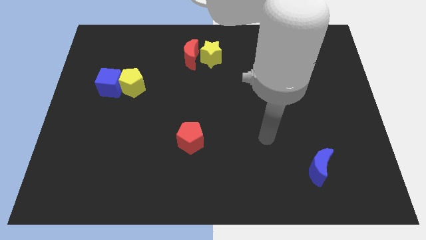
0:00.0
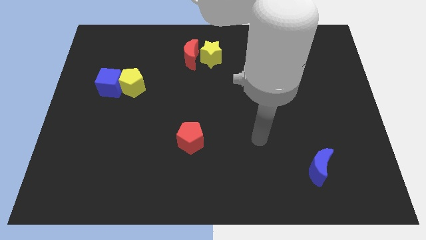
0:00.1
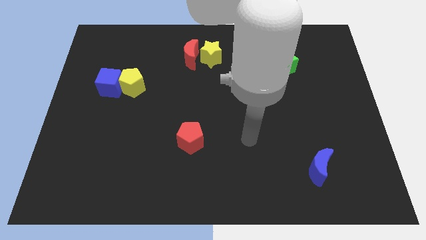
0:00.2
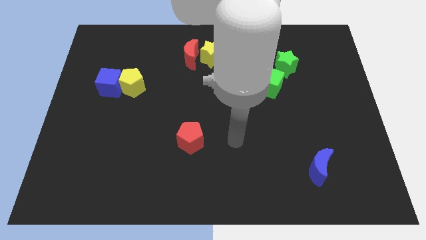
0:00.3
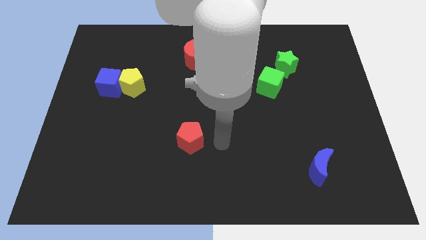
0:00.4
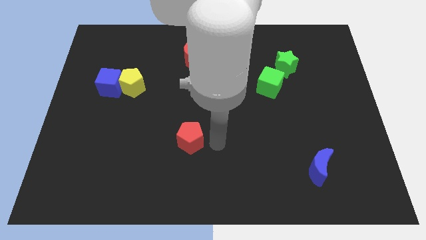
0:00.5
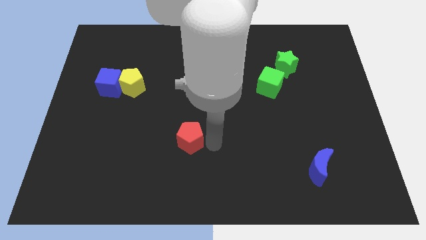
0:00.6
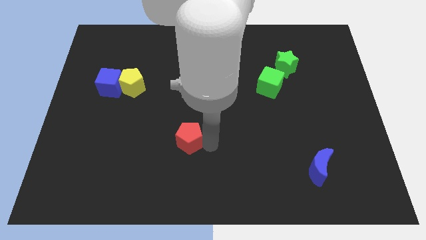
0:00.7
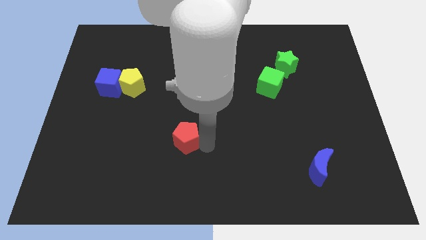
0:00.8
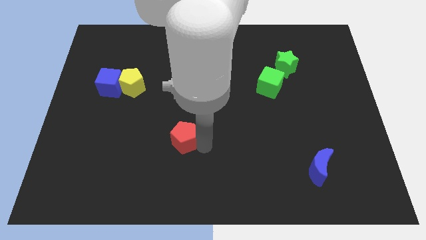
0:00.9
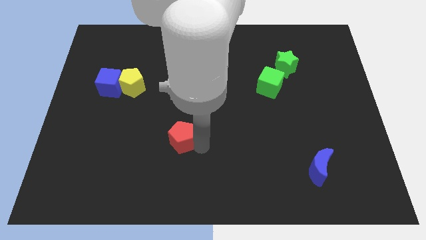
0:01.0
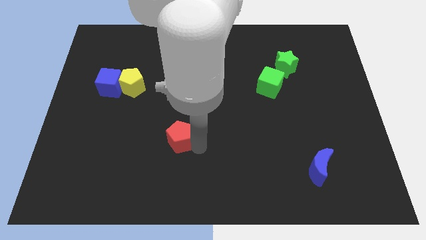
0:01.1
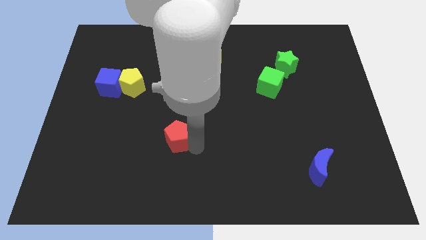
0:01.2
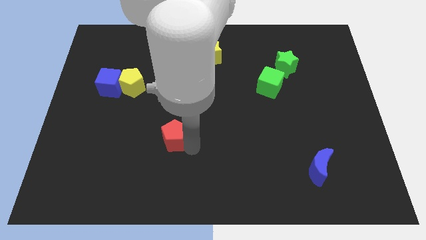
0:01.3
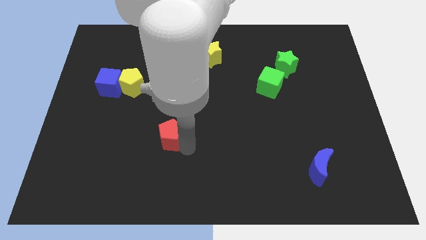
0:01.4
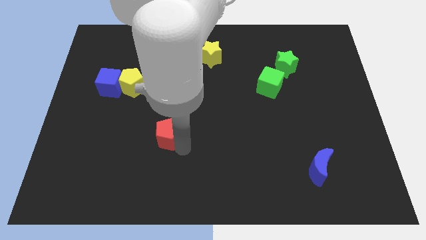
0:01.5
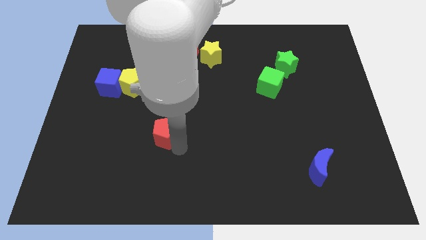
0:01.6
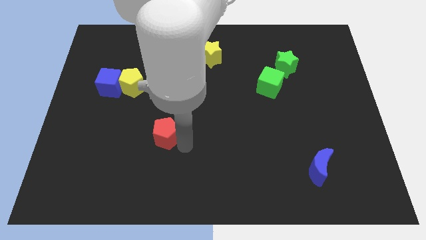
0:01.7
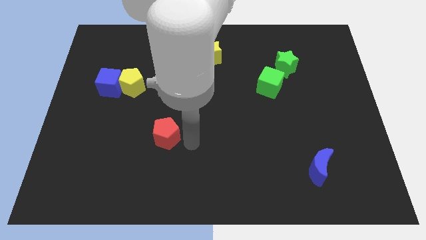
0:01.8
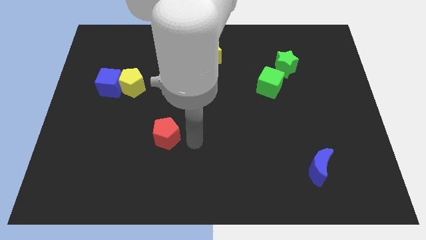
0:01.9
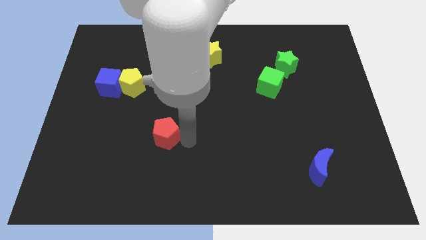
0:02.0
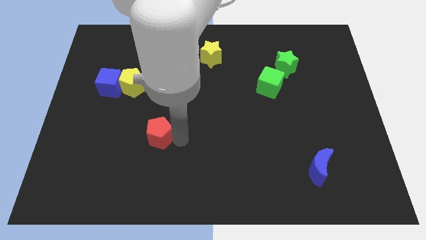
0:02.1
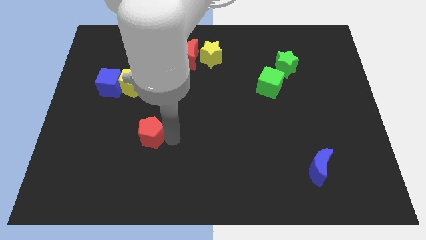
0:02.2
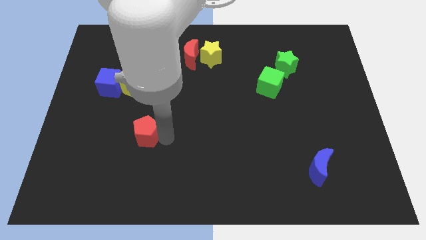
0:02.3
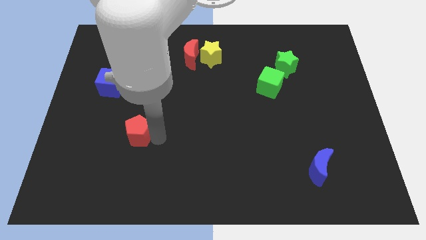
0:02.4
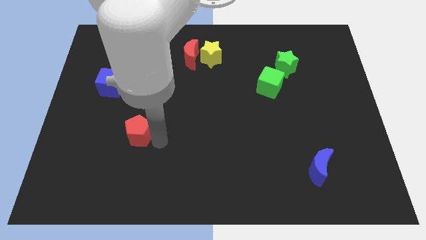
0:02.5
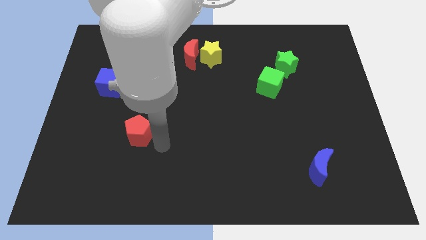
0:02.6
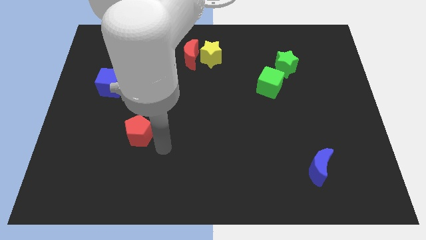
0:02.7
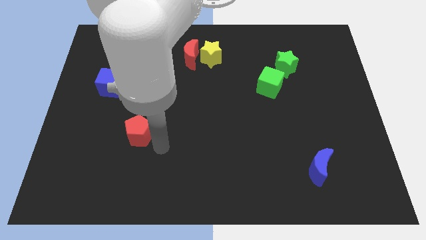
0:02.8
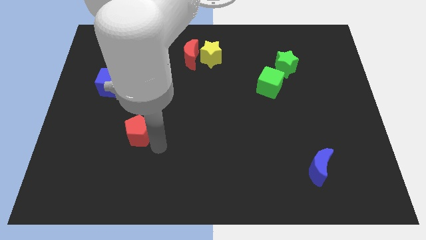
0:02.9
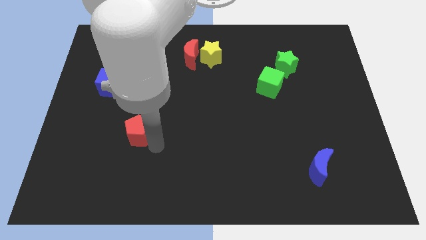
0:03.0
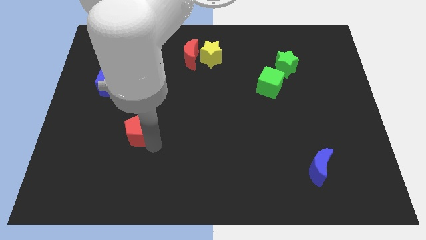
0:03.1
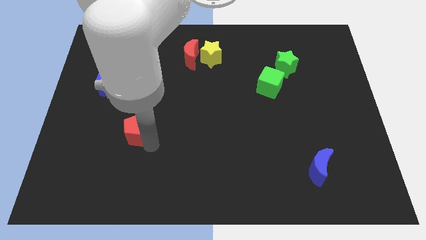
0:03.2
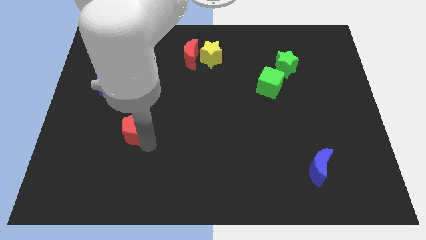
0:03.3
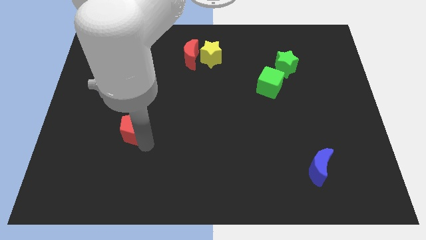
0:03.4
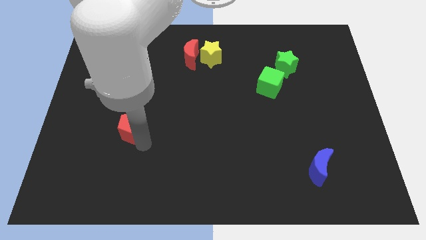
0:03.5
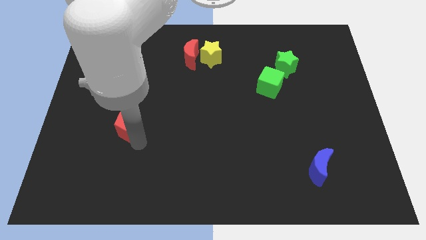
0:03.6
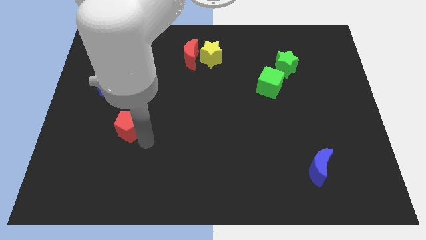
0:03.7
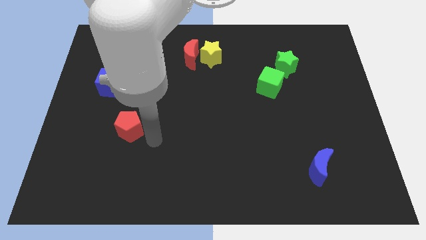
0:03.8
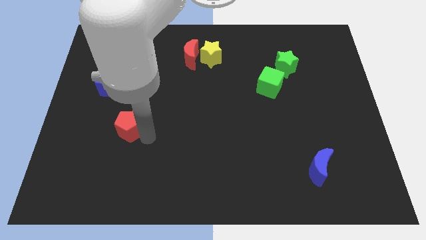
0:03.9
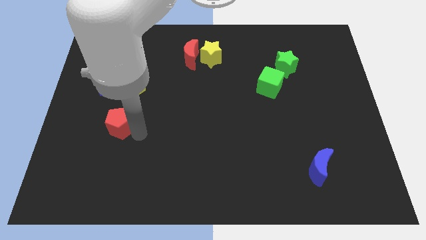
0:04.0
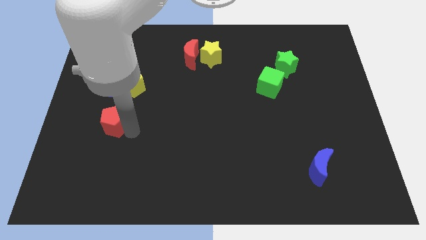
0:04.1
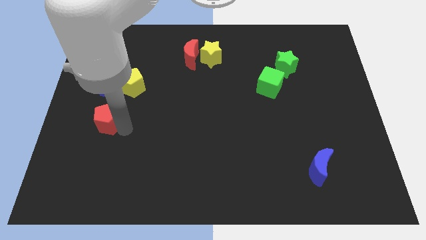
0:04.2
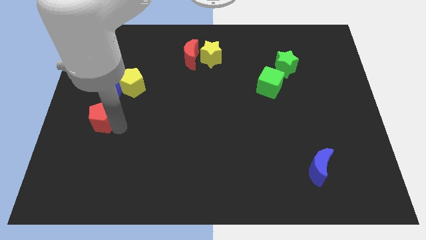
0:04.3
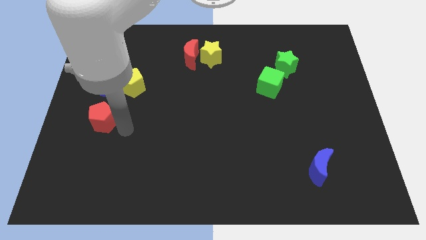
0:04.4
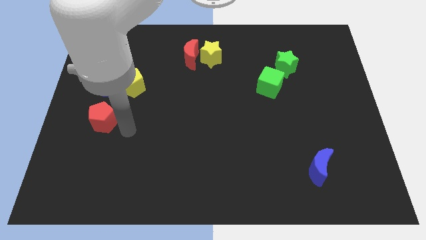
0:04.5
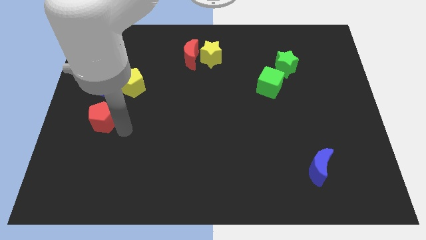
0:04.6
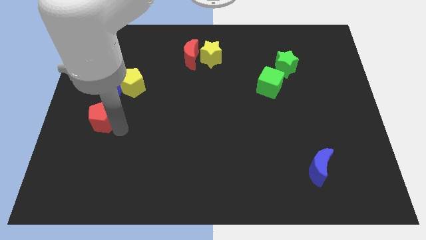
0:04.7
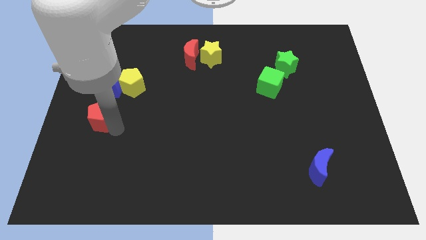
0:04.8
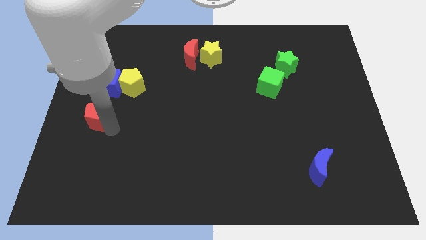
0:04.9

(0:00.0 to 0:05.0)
push the red pentagon to the center left

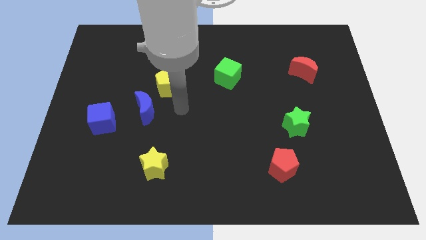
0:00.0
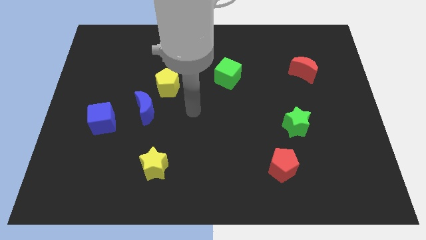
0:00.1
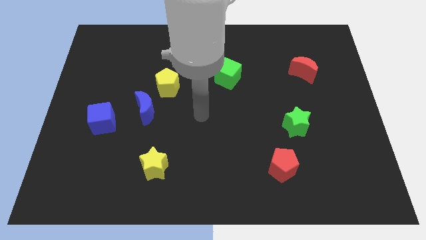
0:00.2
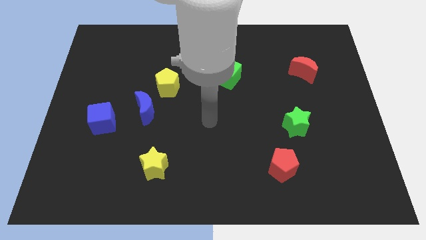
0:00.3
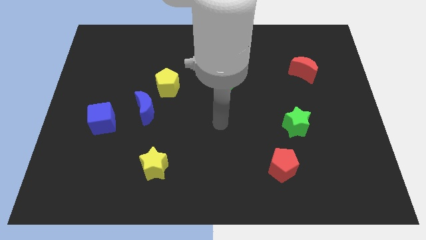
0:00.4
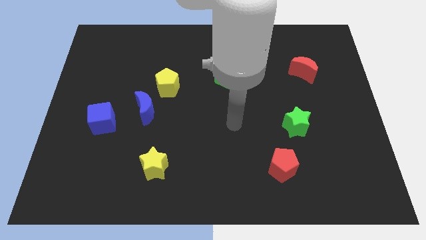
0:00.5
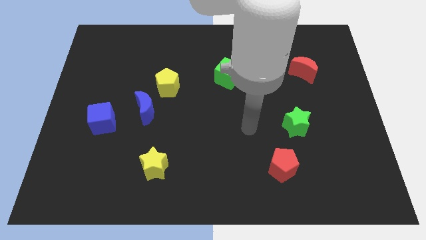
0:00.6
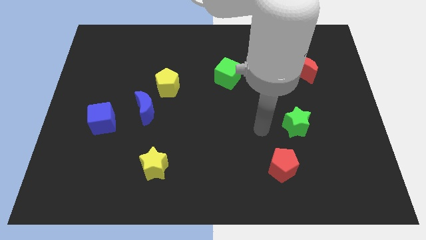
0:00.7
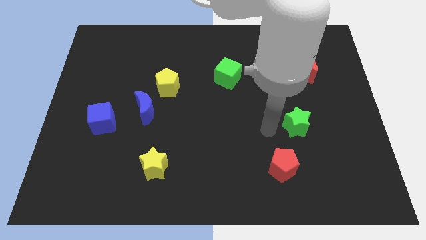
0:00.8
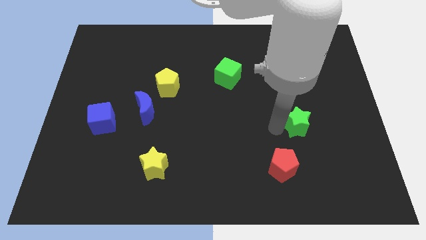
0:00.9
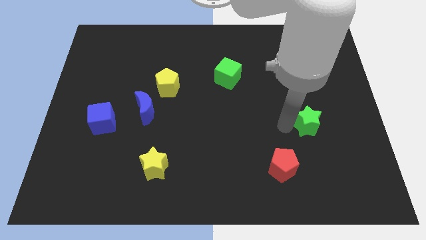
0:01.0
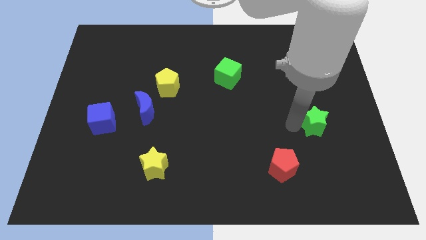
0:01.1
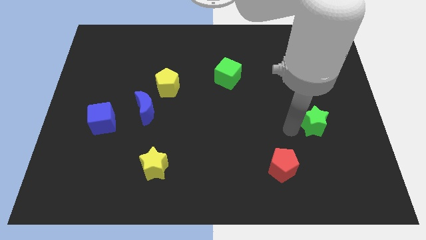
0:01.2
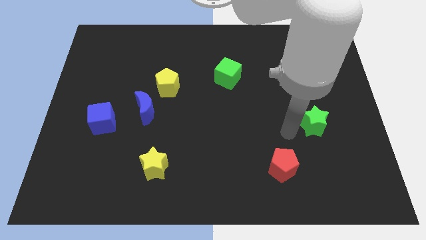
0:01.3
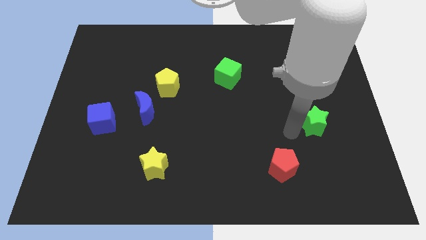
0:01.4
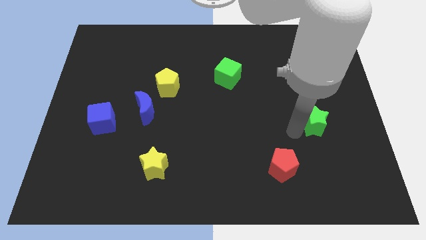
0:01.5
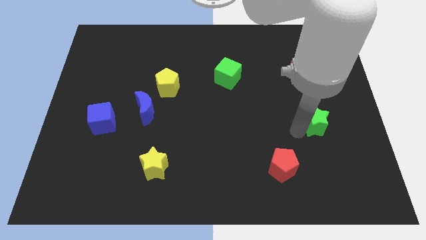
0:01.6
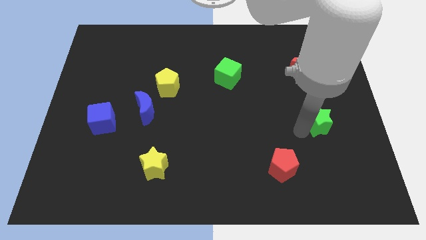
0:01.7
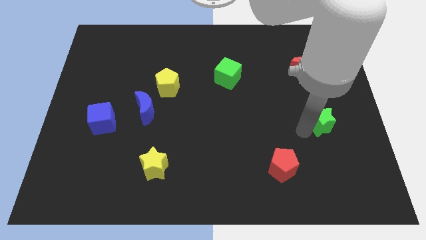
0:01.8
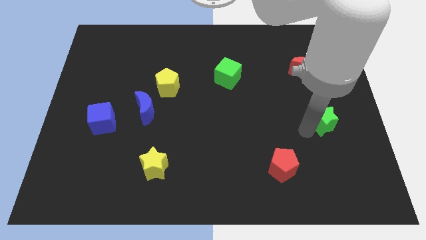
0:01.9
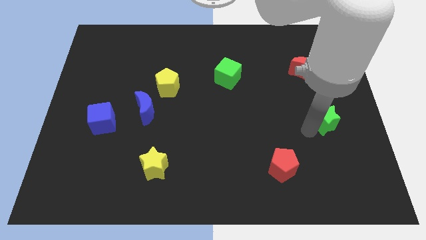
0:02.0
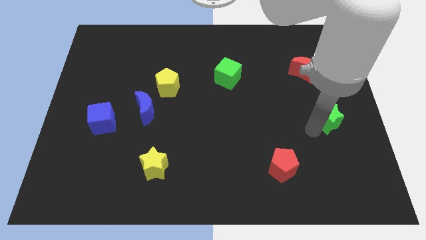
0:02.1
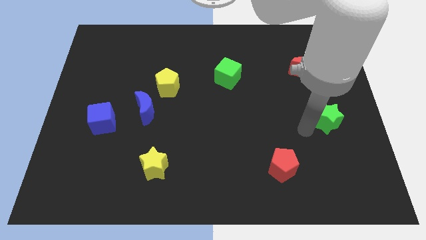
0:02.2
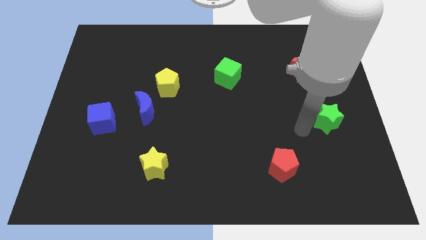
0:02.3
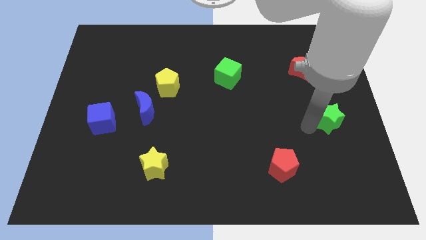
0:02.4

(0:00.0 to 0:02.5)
move the green star to the center right
